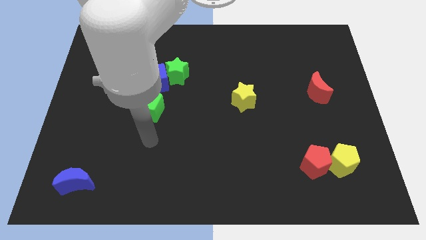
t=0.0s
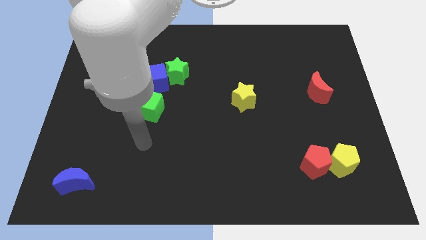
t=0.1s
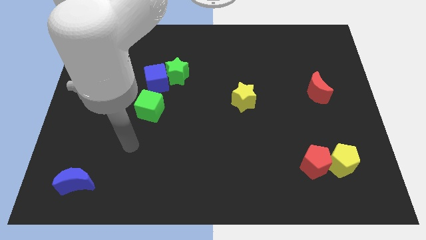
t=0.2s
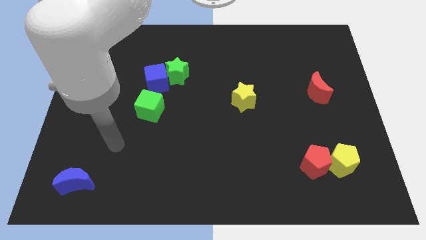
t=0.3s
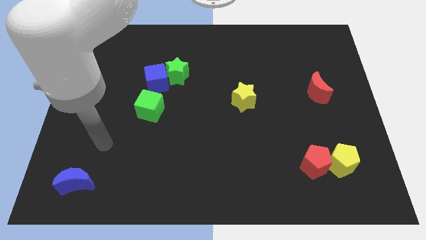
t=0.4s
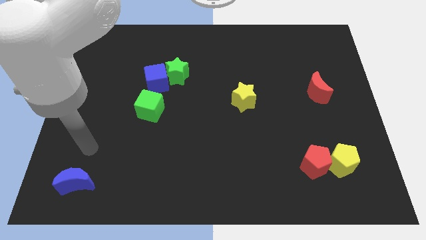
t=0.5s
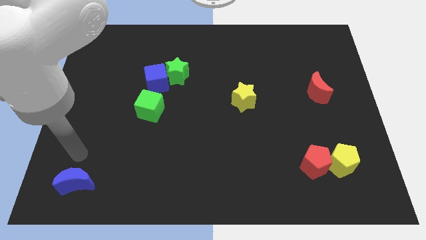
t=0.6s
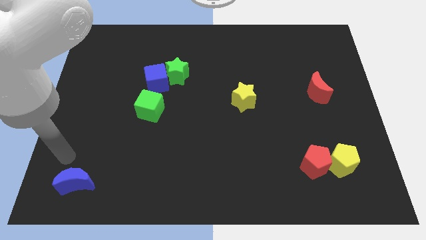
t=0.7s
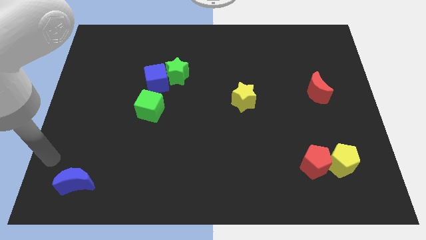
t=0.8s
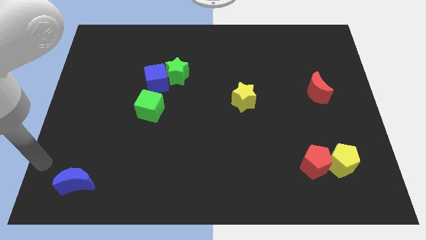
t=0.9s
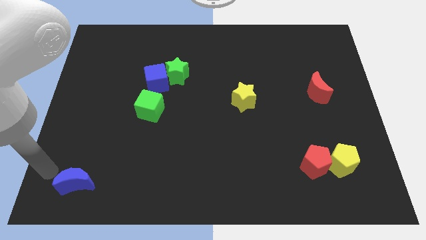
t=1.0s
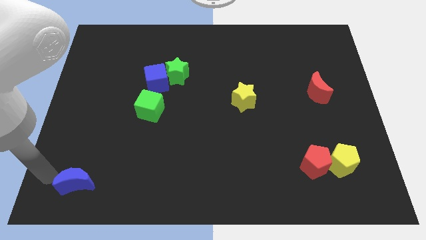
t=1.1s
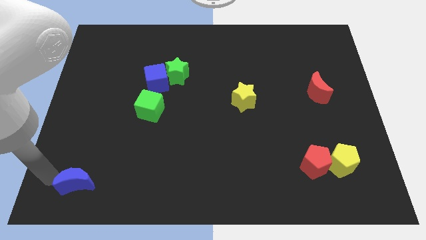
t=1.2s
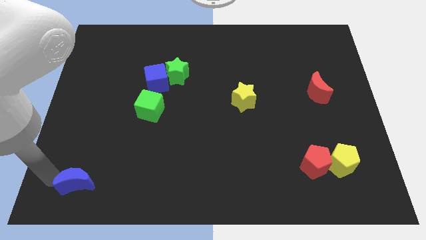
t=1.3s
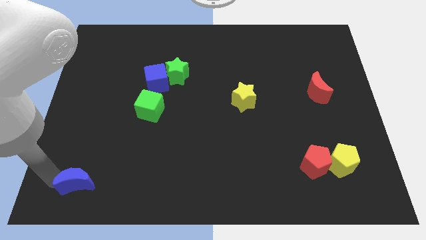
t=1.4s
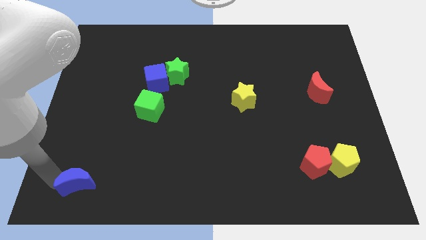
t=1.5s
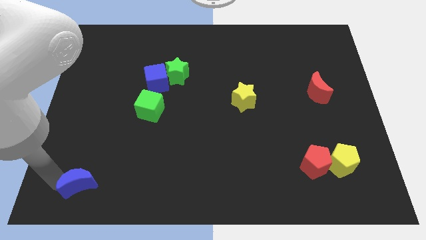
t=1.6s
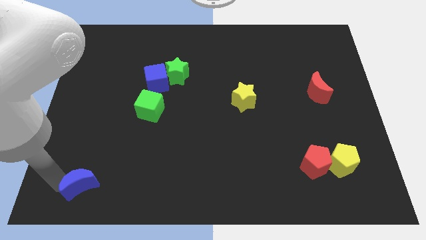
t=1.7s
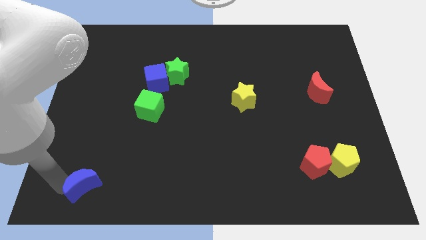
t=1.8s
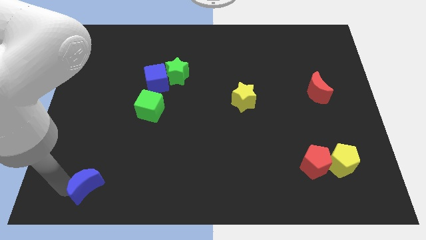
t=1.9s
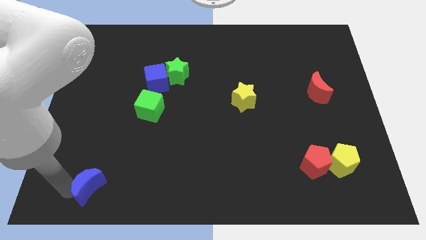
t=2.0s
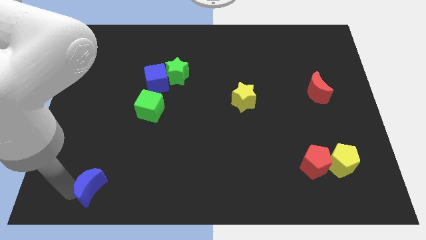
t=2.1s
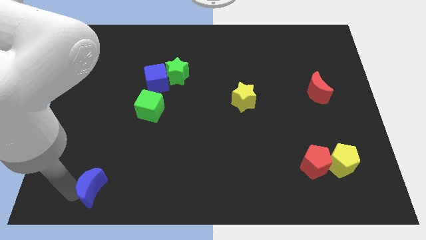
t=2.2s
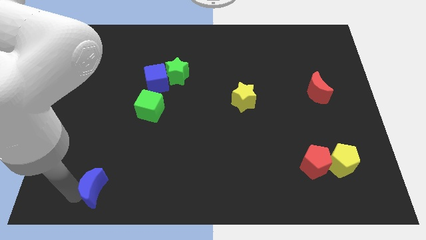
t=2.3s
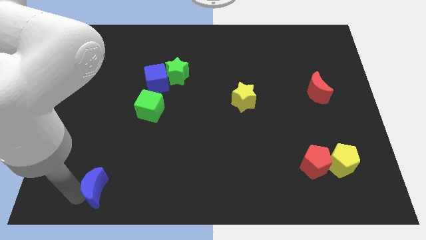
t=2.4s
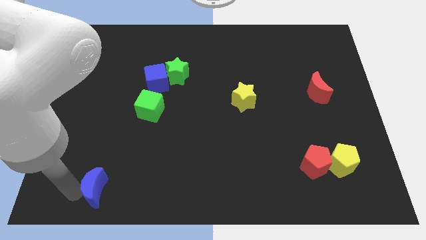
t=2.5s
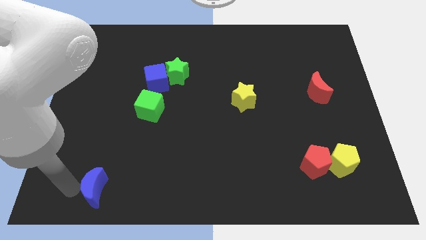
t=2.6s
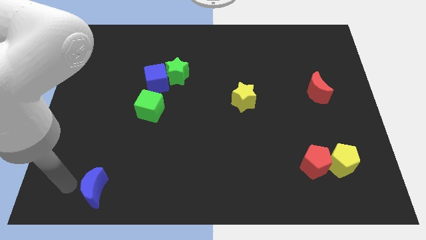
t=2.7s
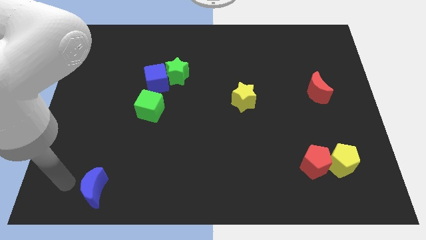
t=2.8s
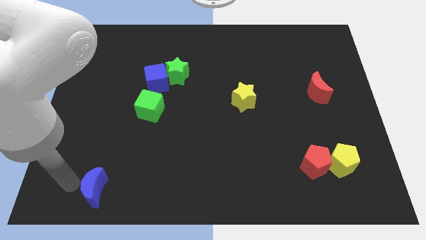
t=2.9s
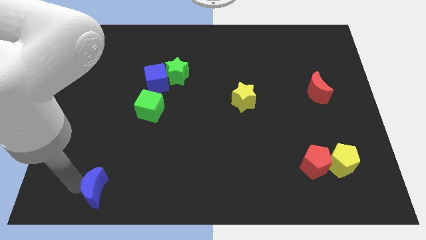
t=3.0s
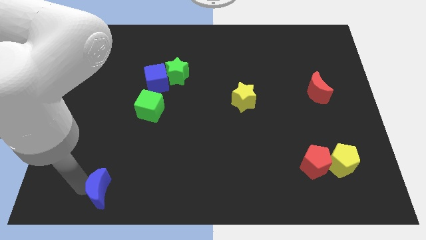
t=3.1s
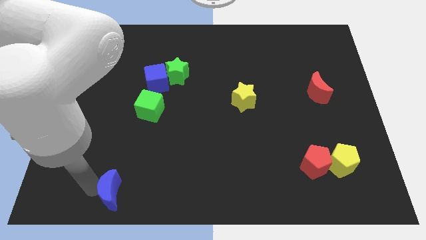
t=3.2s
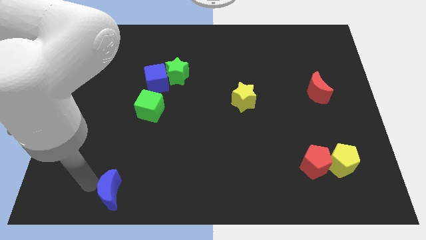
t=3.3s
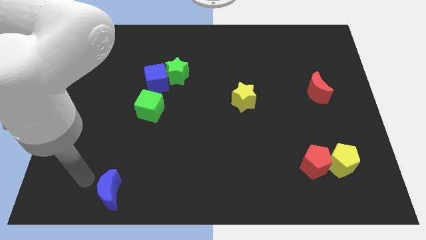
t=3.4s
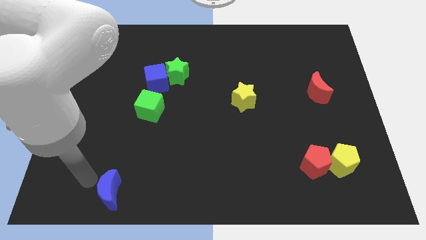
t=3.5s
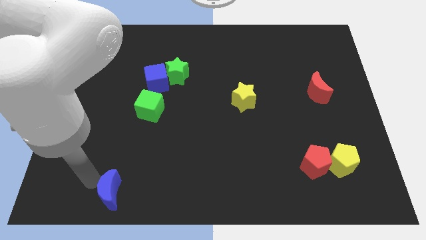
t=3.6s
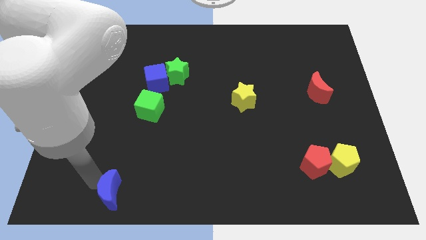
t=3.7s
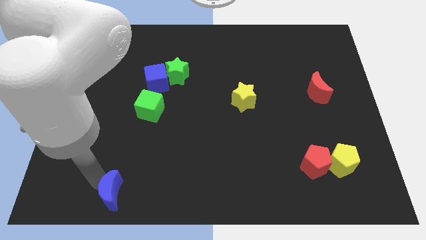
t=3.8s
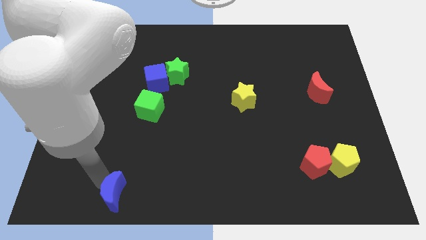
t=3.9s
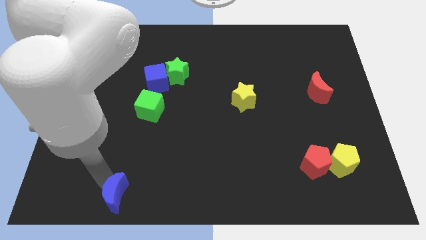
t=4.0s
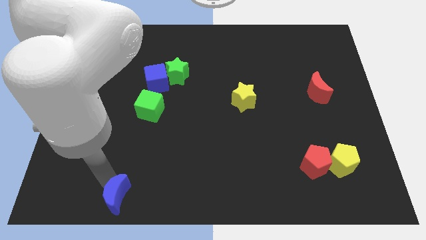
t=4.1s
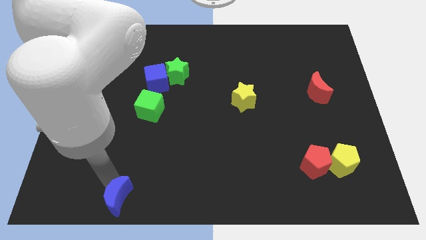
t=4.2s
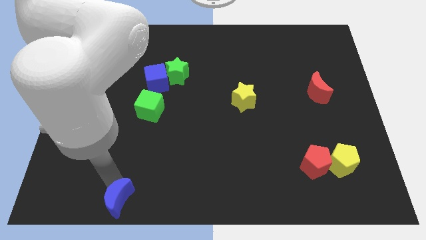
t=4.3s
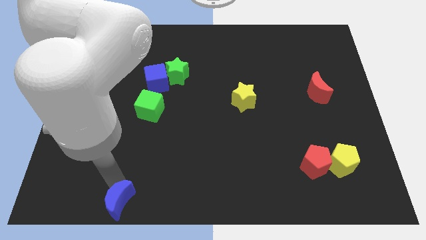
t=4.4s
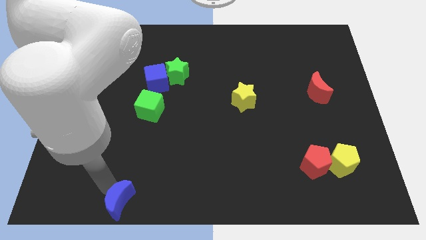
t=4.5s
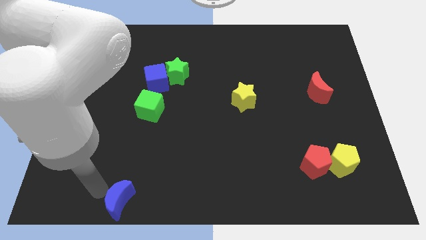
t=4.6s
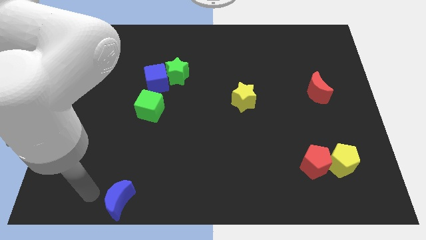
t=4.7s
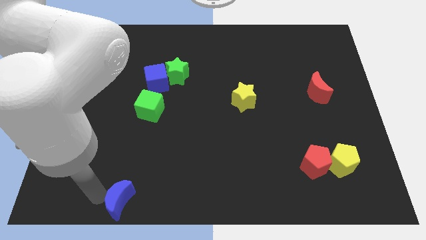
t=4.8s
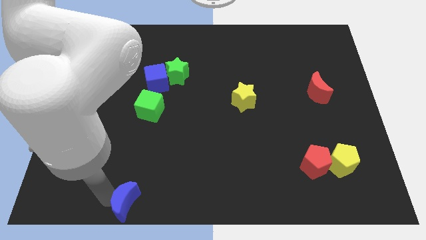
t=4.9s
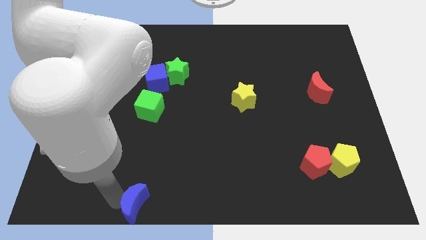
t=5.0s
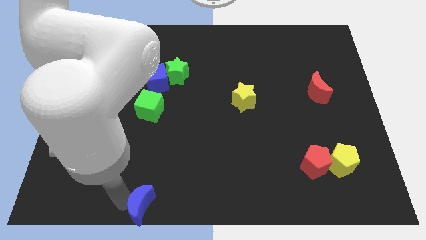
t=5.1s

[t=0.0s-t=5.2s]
put the blue moon to the bottom side

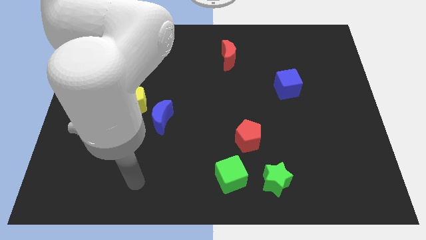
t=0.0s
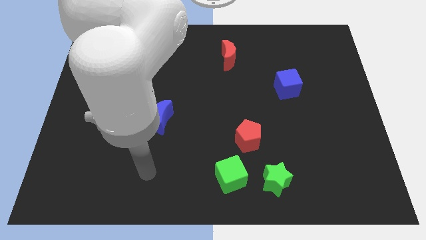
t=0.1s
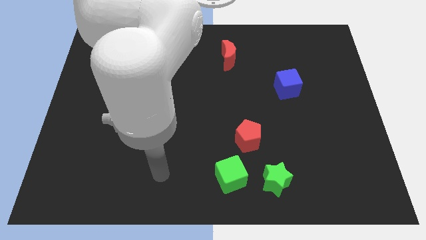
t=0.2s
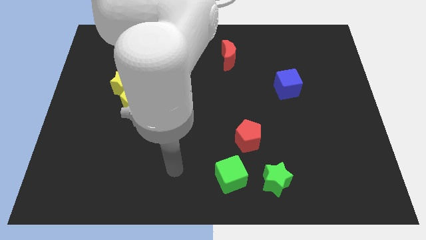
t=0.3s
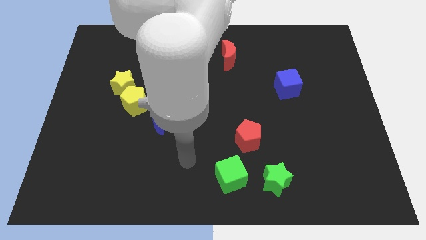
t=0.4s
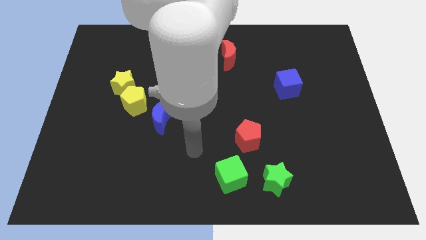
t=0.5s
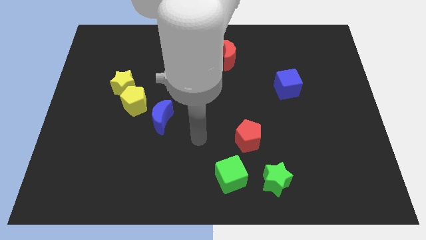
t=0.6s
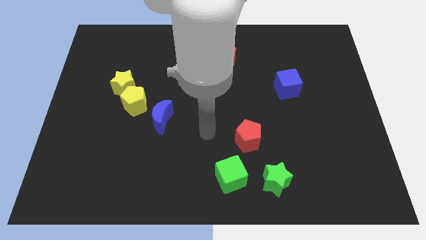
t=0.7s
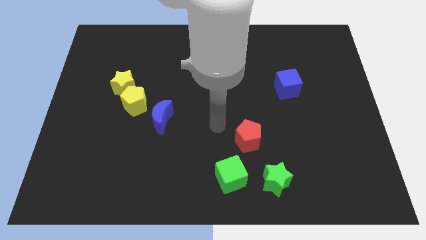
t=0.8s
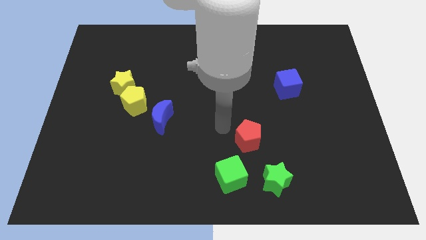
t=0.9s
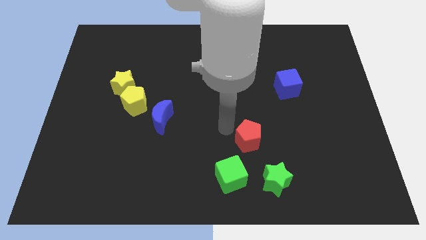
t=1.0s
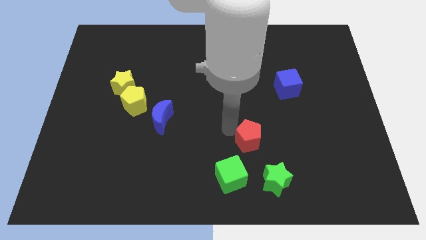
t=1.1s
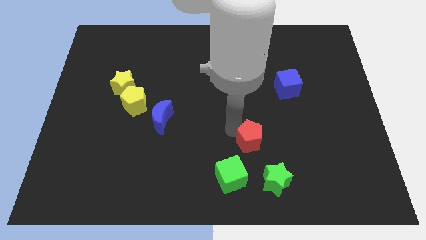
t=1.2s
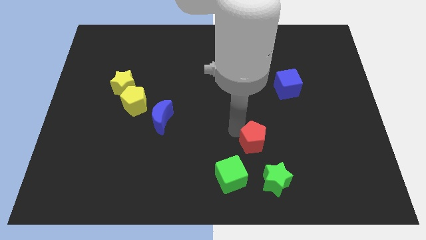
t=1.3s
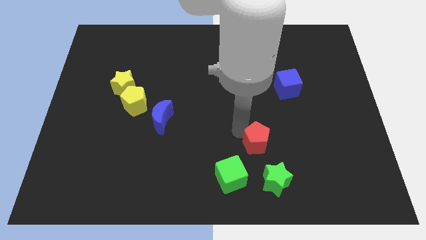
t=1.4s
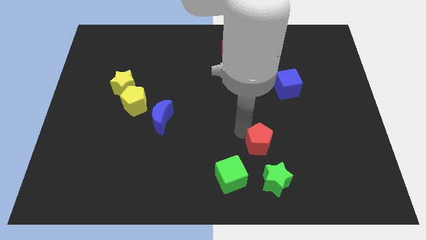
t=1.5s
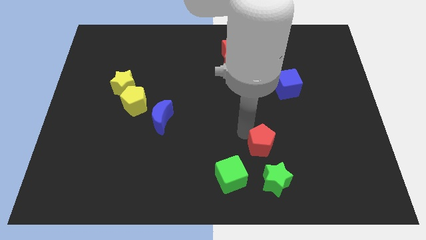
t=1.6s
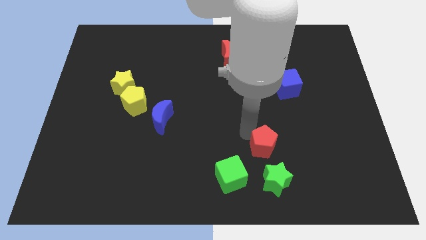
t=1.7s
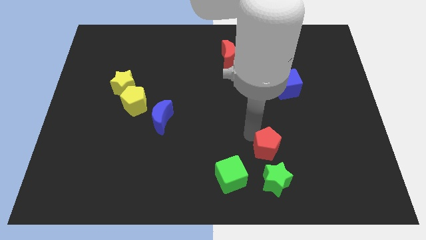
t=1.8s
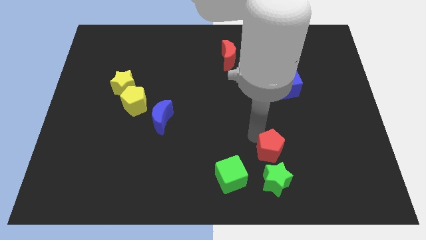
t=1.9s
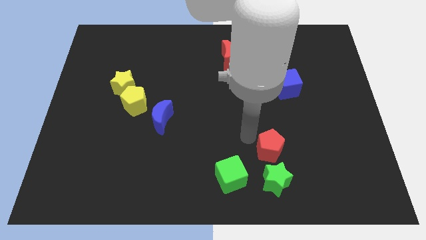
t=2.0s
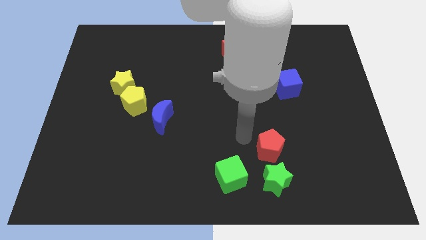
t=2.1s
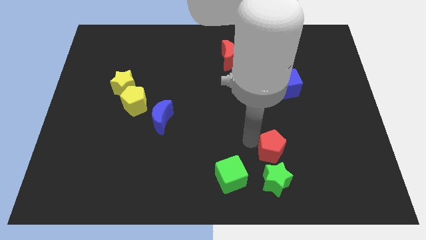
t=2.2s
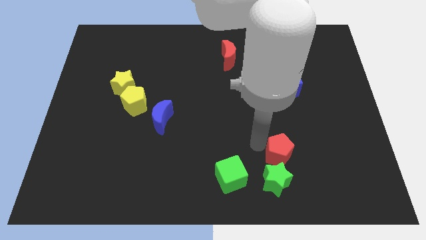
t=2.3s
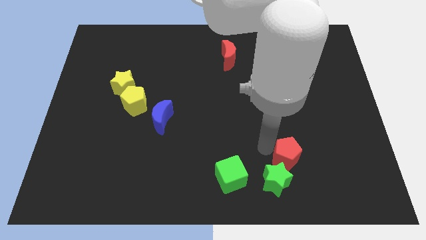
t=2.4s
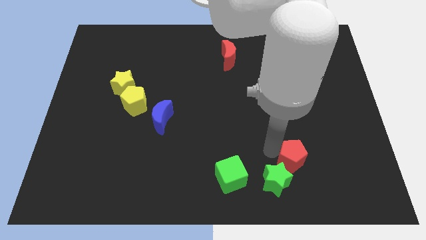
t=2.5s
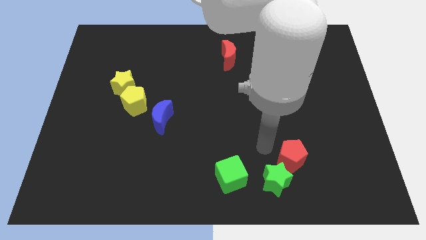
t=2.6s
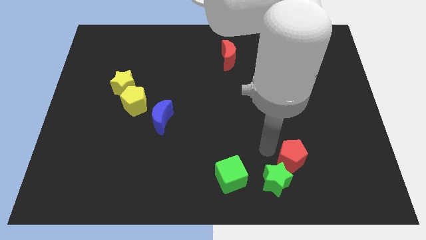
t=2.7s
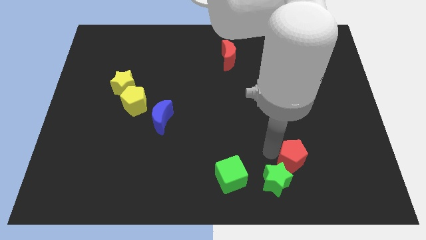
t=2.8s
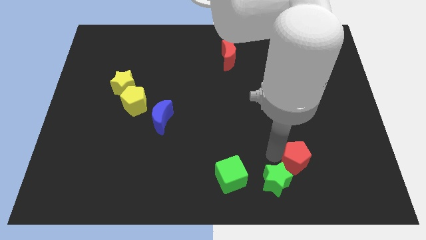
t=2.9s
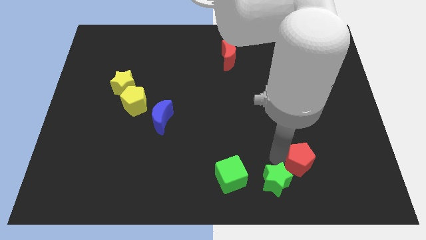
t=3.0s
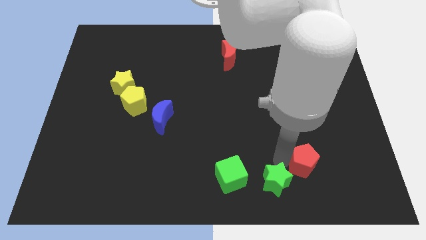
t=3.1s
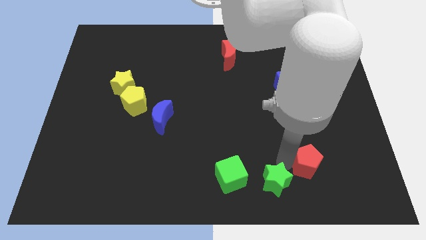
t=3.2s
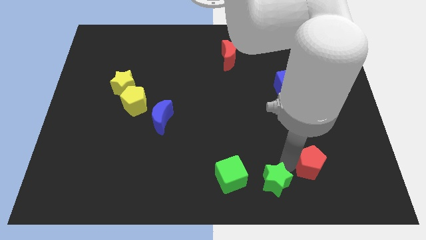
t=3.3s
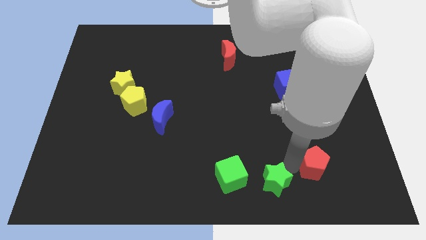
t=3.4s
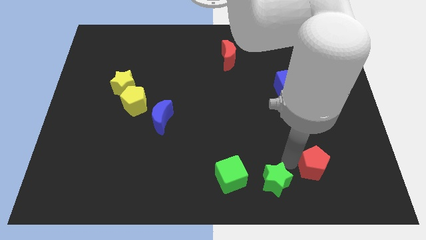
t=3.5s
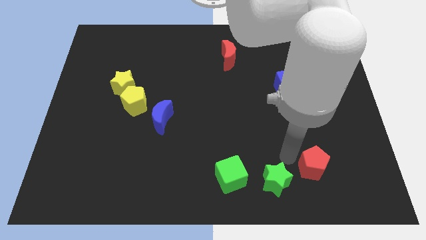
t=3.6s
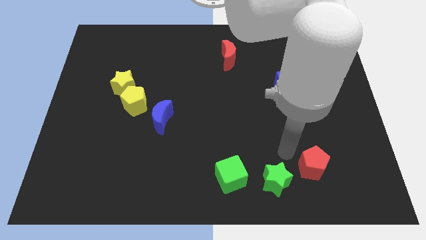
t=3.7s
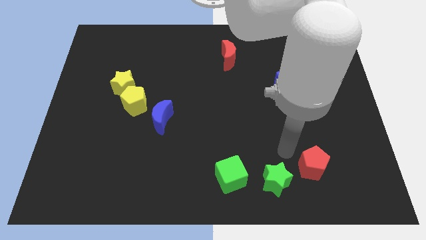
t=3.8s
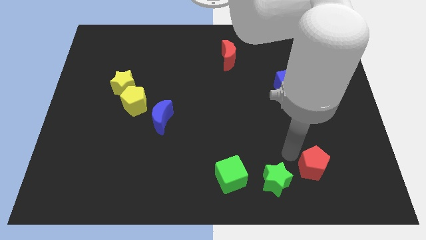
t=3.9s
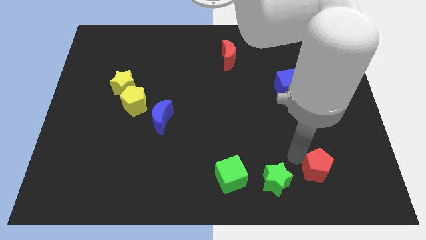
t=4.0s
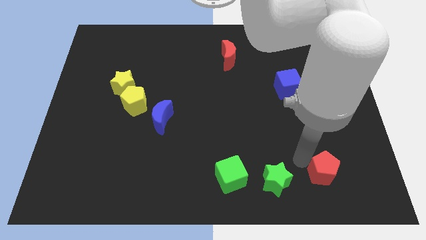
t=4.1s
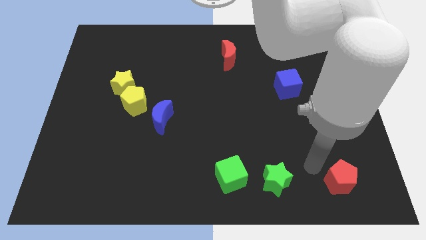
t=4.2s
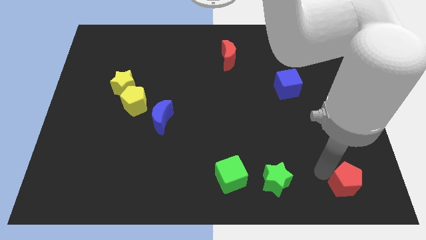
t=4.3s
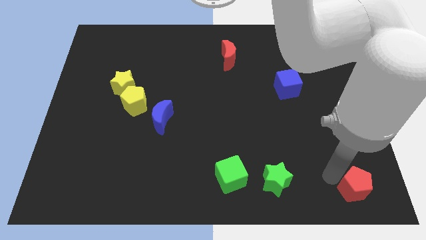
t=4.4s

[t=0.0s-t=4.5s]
slide the red pentagon to the bottom right of the board
